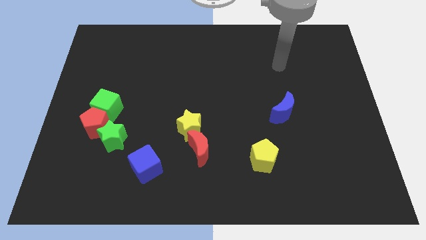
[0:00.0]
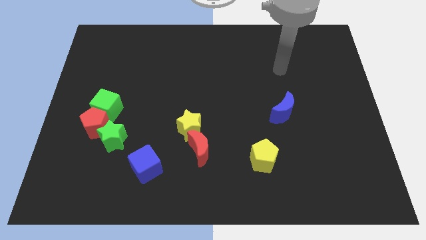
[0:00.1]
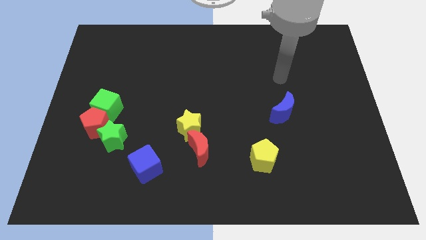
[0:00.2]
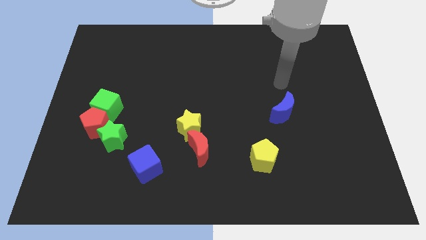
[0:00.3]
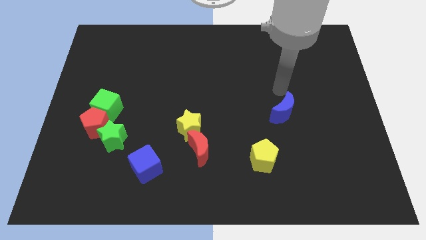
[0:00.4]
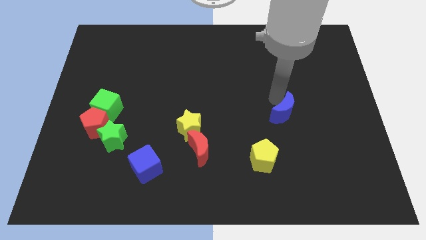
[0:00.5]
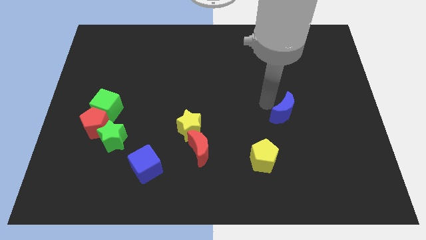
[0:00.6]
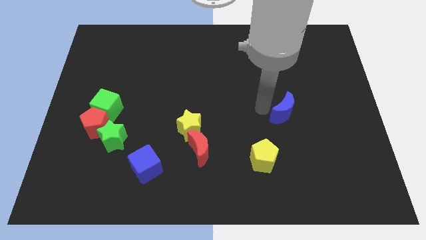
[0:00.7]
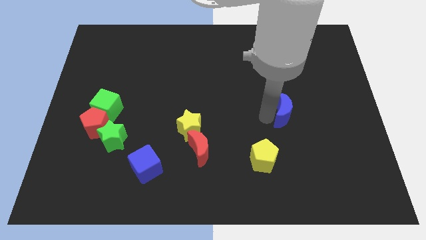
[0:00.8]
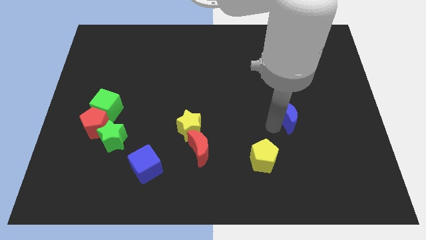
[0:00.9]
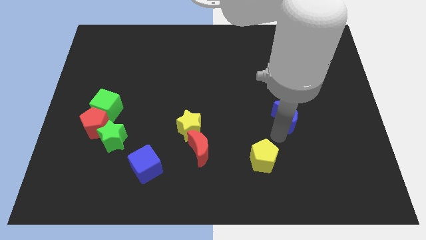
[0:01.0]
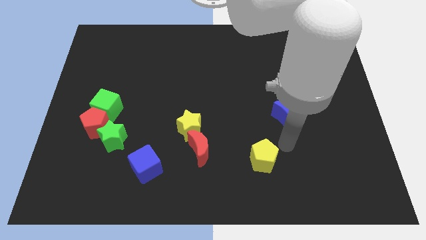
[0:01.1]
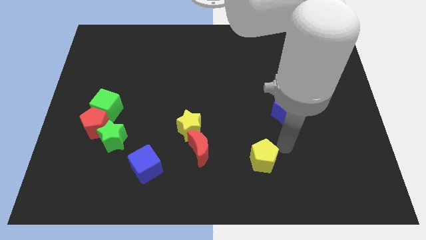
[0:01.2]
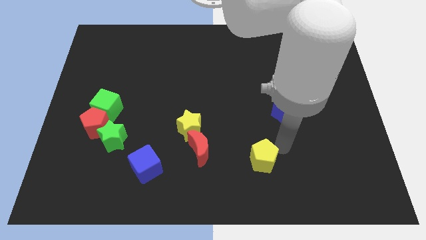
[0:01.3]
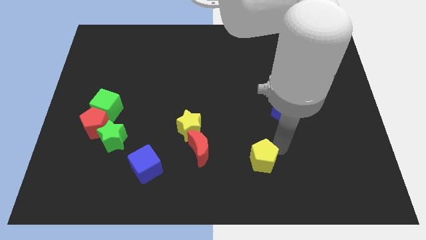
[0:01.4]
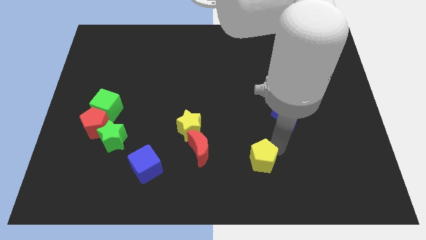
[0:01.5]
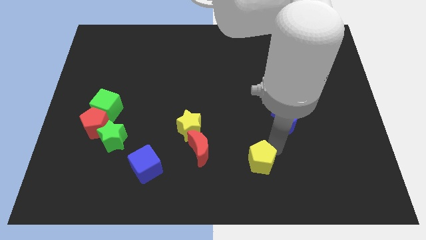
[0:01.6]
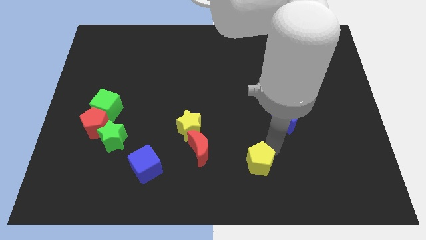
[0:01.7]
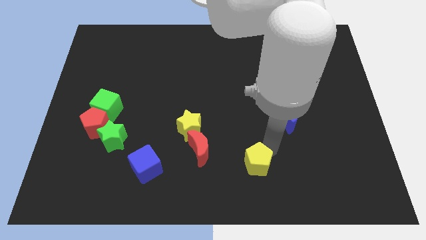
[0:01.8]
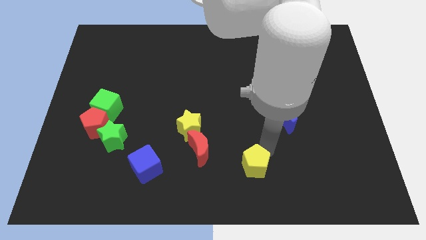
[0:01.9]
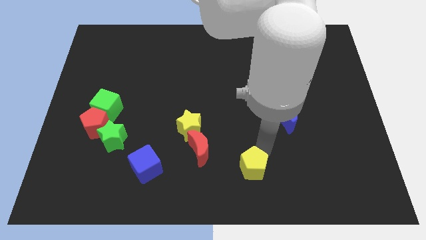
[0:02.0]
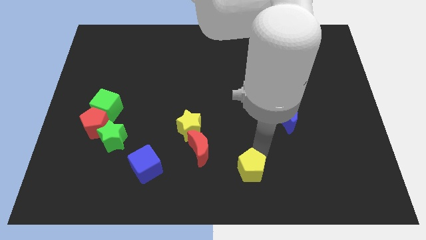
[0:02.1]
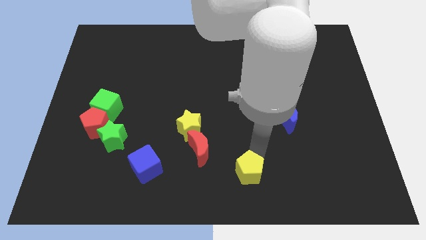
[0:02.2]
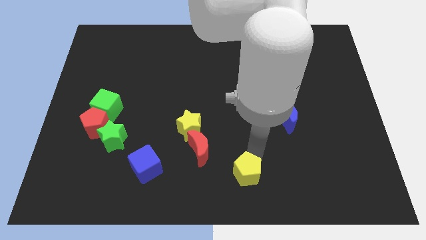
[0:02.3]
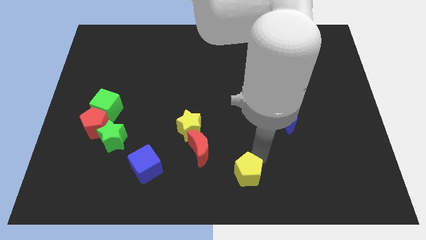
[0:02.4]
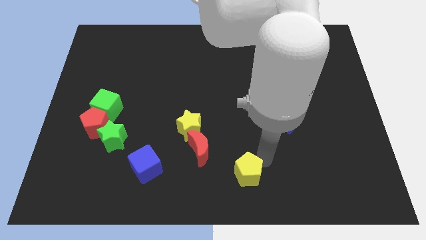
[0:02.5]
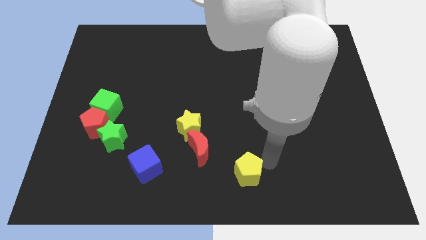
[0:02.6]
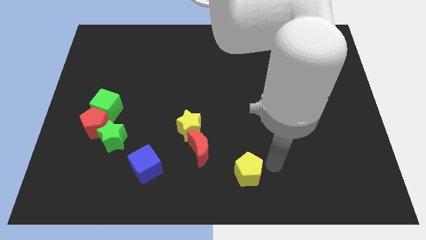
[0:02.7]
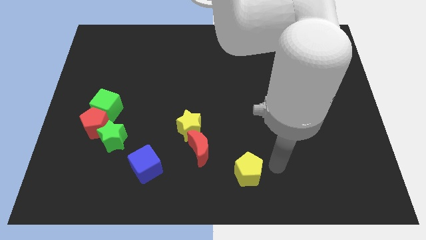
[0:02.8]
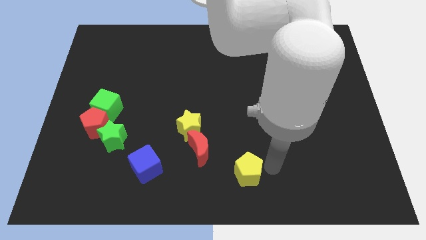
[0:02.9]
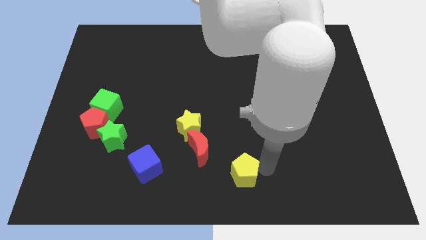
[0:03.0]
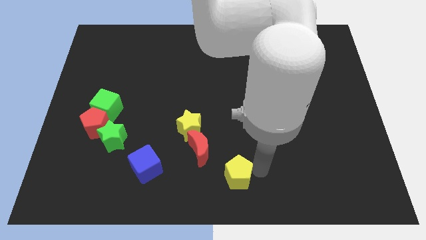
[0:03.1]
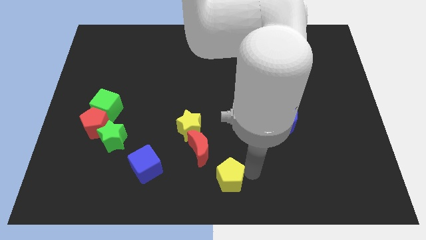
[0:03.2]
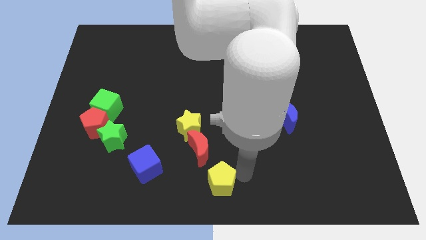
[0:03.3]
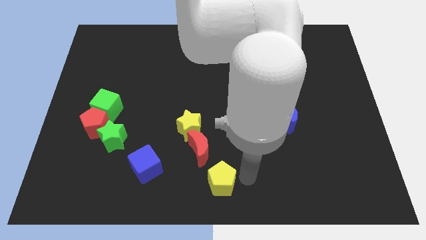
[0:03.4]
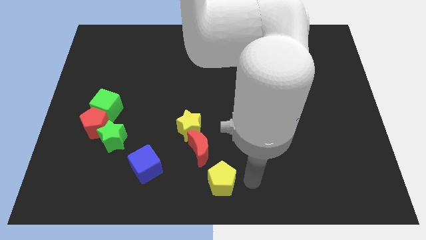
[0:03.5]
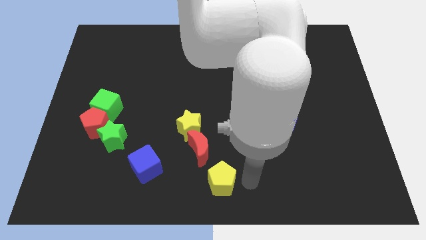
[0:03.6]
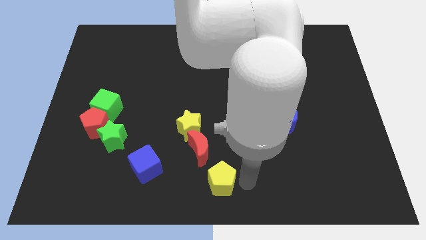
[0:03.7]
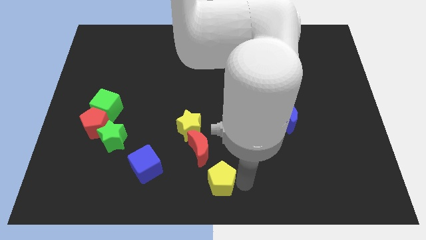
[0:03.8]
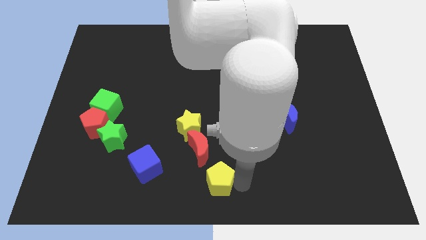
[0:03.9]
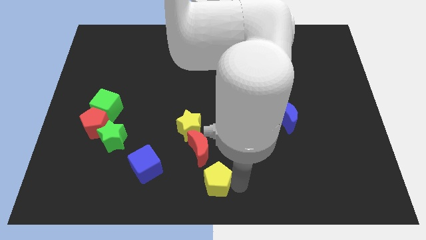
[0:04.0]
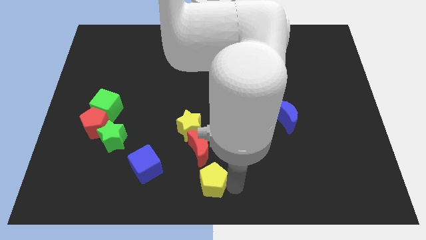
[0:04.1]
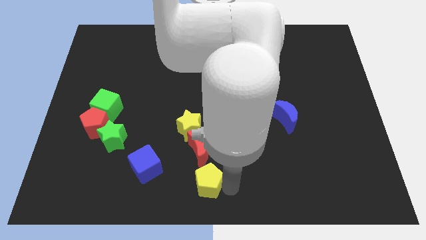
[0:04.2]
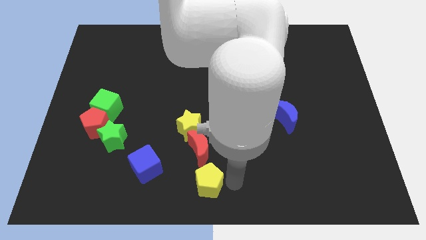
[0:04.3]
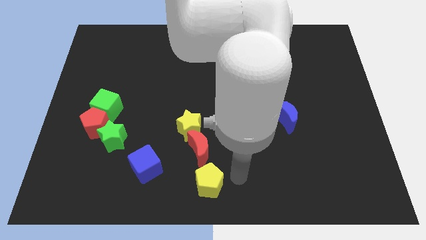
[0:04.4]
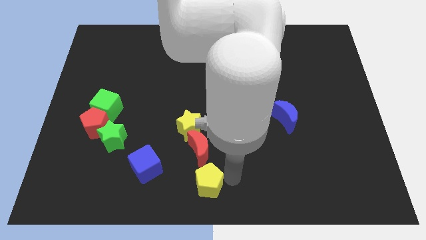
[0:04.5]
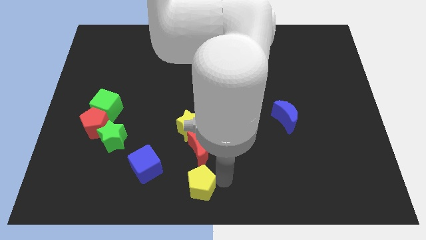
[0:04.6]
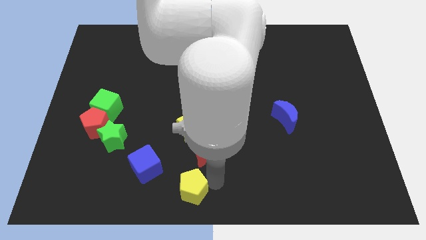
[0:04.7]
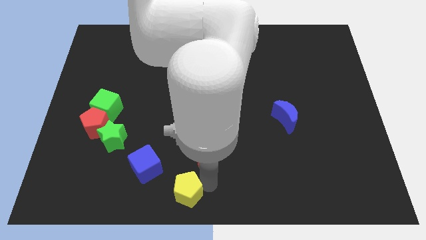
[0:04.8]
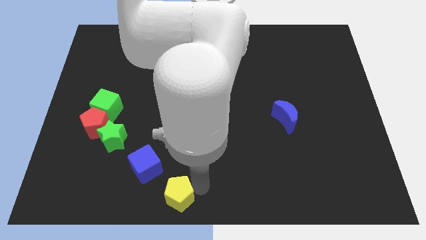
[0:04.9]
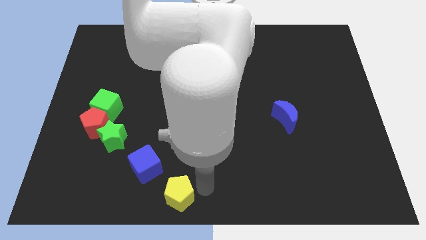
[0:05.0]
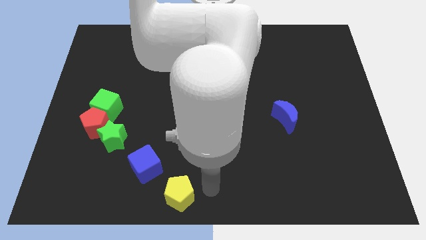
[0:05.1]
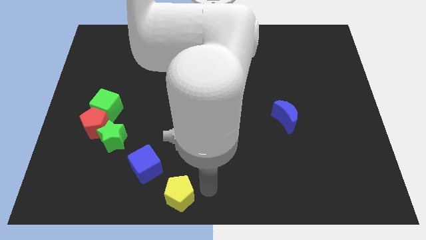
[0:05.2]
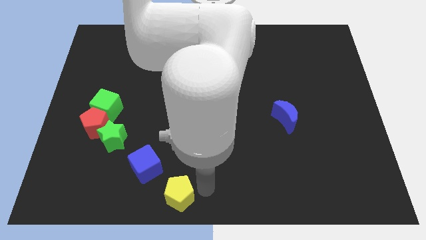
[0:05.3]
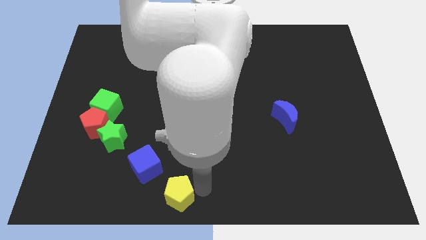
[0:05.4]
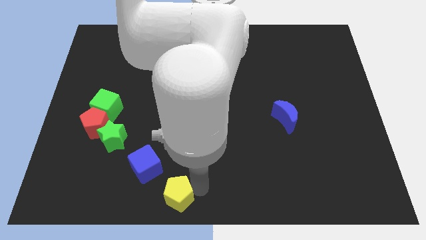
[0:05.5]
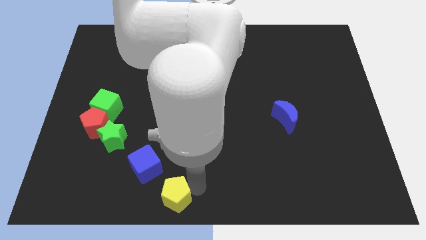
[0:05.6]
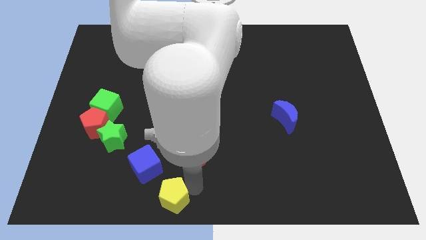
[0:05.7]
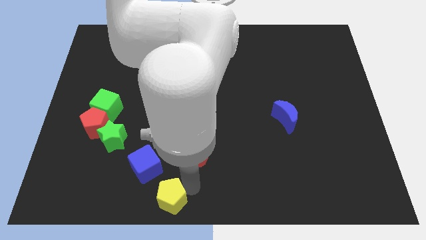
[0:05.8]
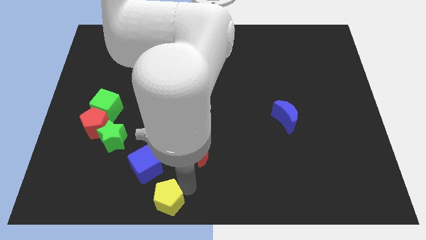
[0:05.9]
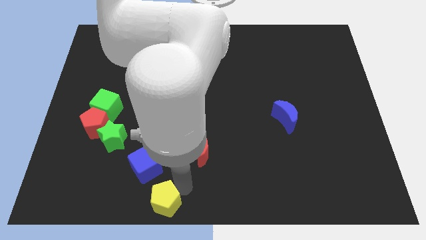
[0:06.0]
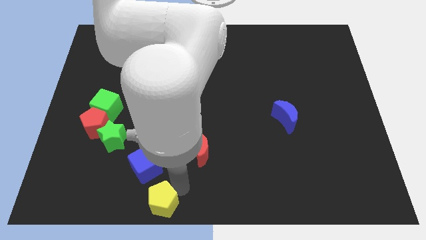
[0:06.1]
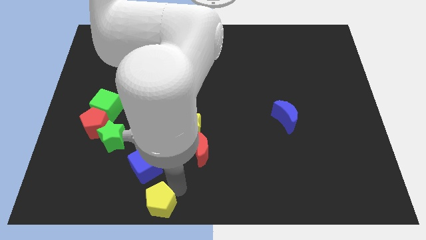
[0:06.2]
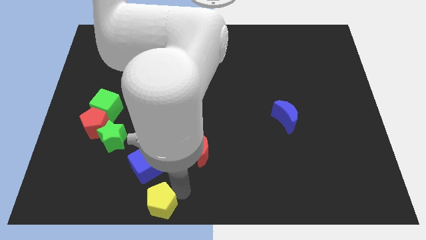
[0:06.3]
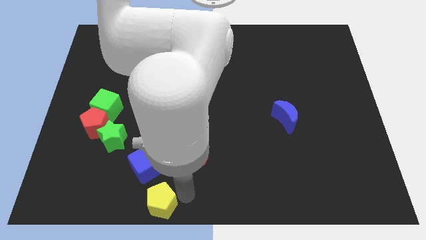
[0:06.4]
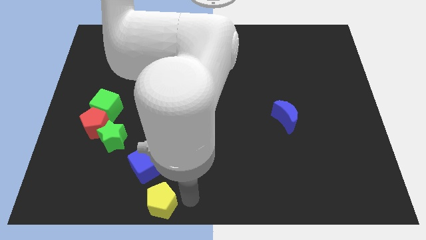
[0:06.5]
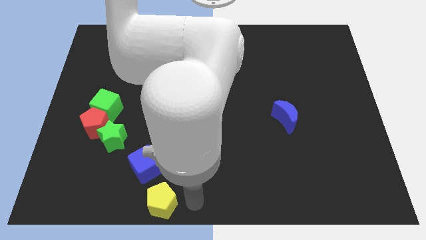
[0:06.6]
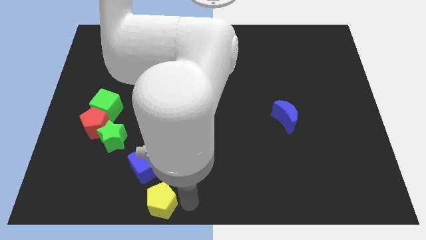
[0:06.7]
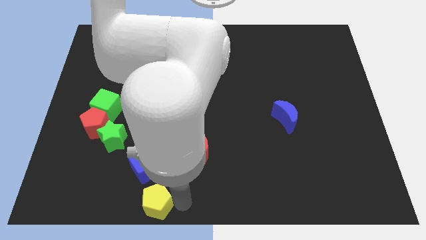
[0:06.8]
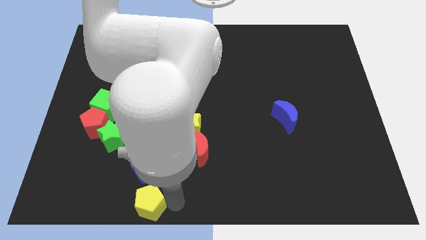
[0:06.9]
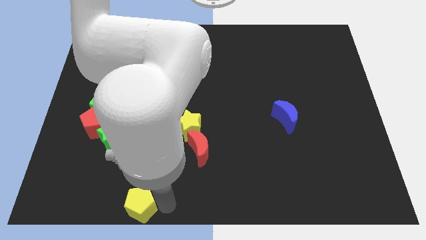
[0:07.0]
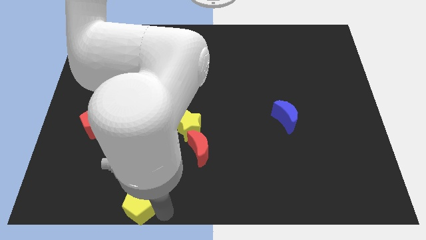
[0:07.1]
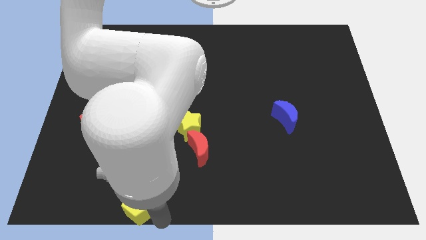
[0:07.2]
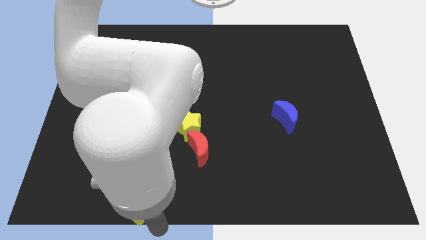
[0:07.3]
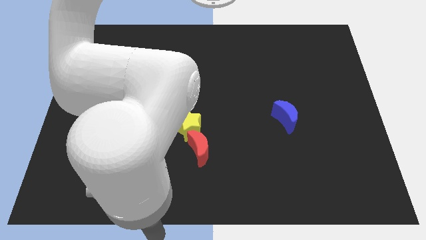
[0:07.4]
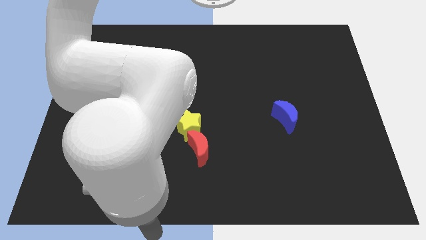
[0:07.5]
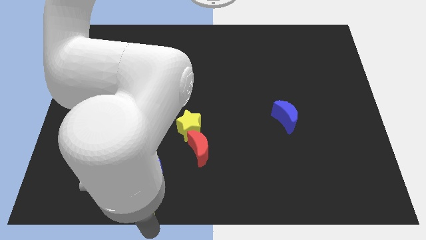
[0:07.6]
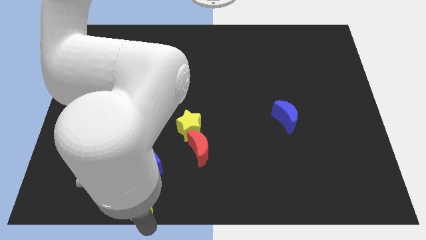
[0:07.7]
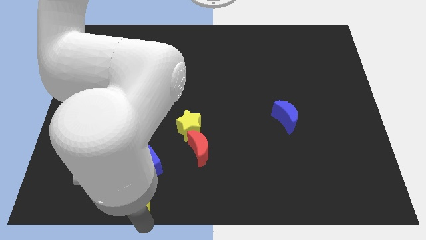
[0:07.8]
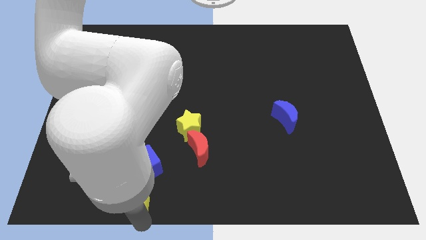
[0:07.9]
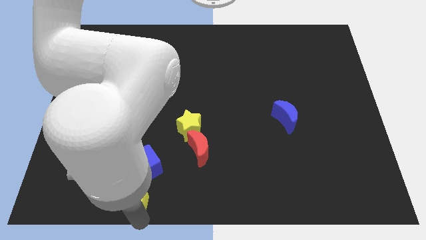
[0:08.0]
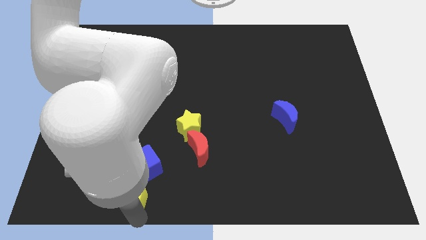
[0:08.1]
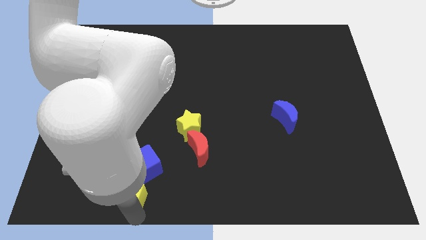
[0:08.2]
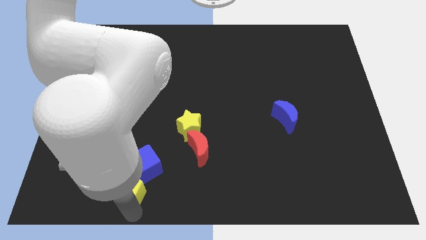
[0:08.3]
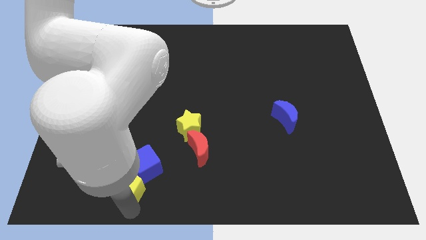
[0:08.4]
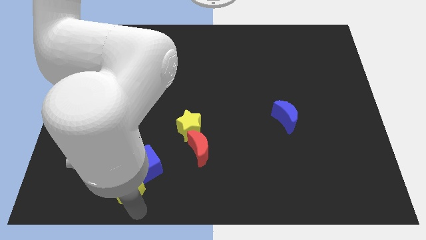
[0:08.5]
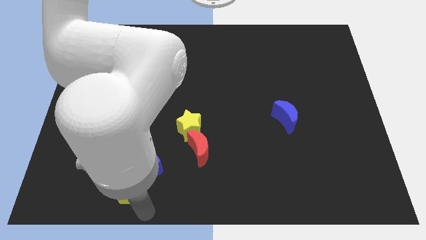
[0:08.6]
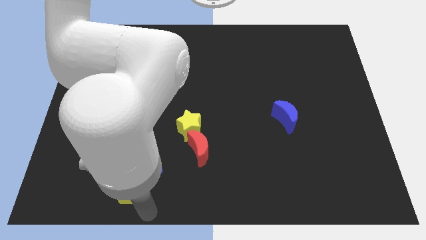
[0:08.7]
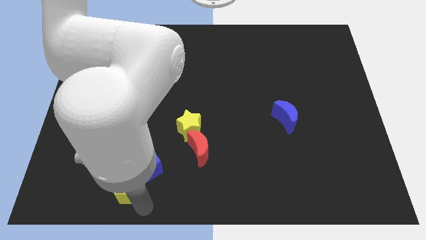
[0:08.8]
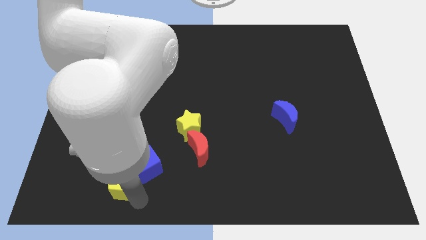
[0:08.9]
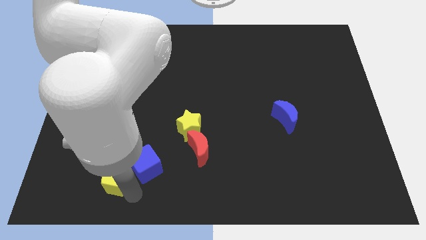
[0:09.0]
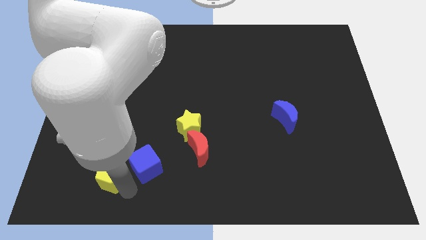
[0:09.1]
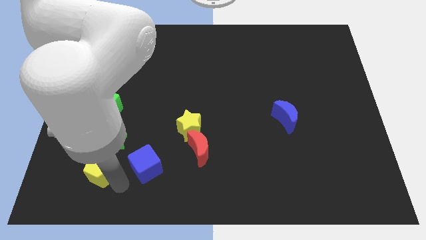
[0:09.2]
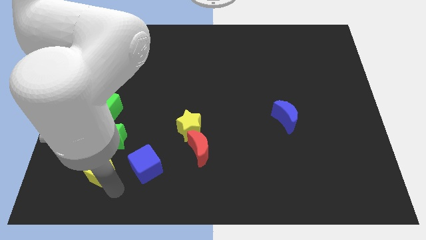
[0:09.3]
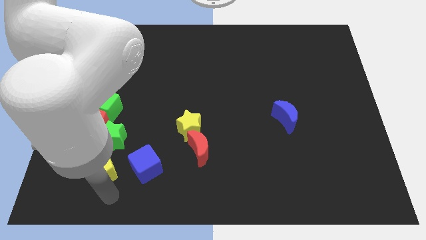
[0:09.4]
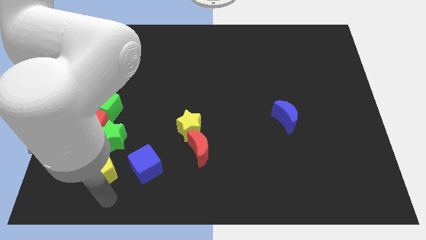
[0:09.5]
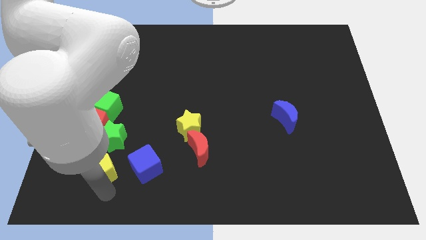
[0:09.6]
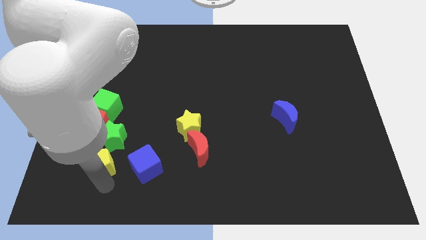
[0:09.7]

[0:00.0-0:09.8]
slide the yellow pentagon to the bottom of the green cube
